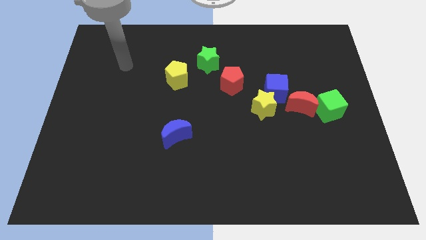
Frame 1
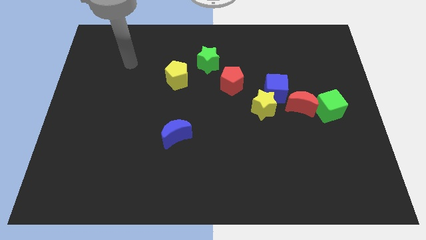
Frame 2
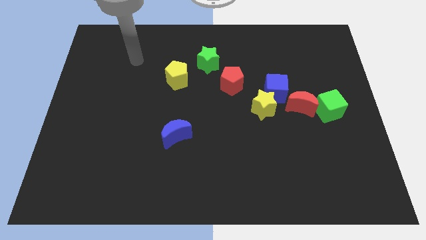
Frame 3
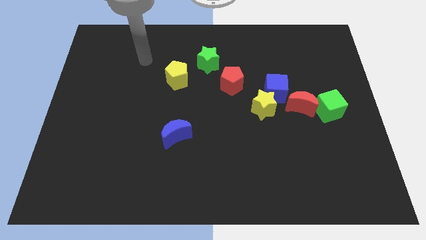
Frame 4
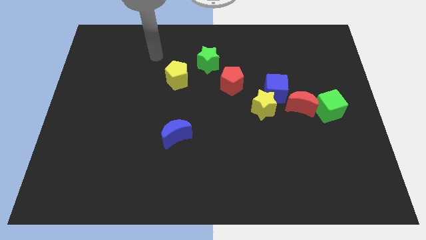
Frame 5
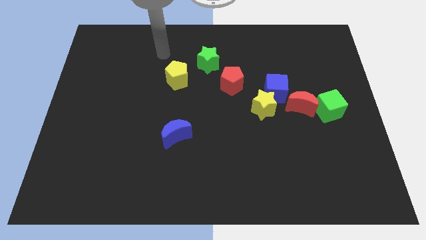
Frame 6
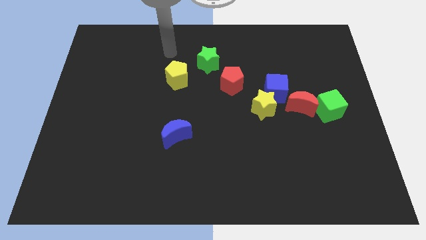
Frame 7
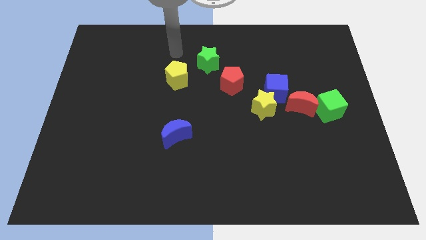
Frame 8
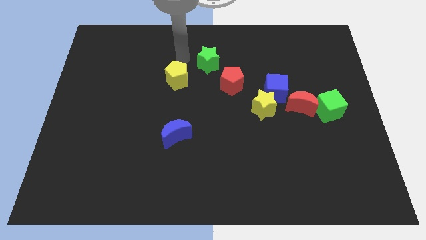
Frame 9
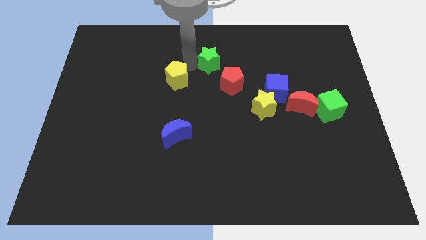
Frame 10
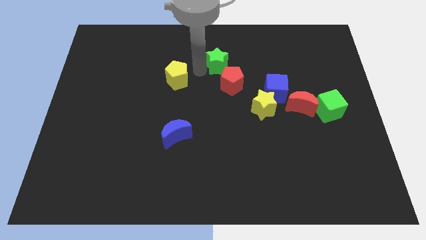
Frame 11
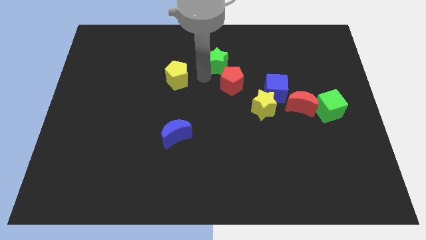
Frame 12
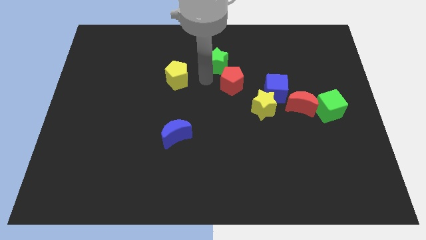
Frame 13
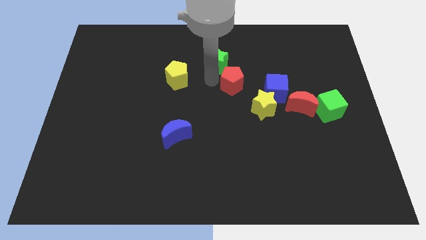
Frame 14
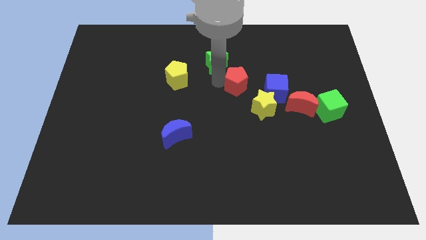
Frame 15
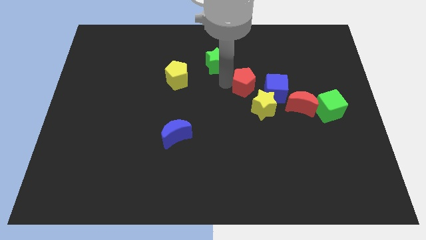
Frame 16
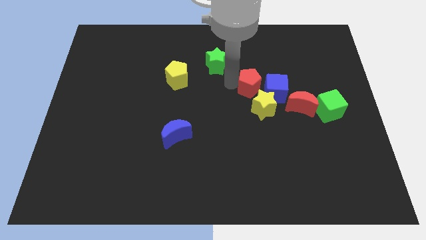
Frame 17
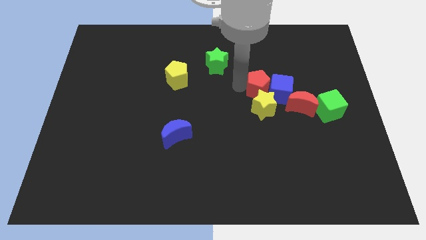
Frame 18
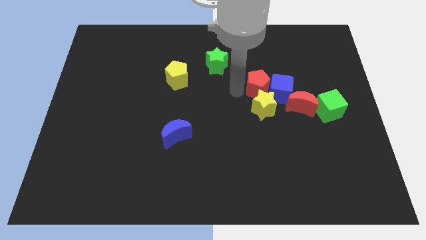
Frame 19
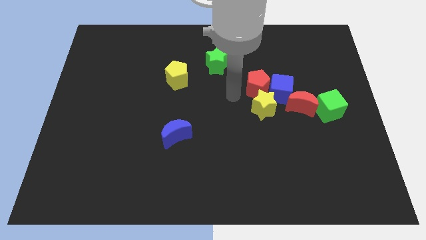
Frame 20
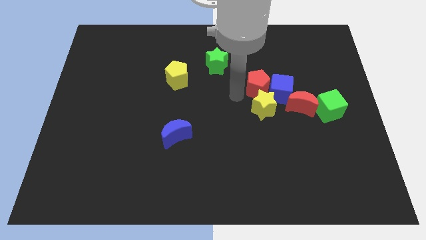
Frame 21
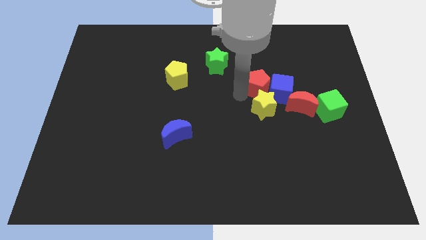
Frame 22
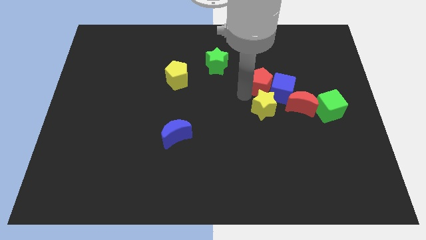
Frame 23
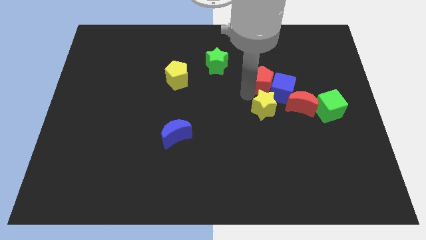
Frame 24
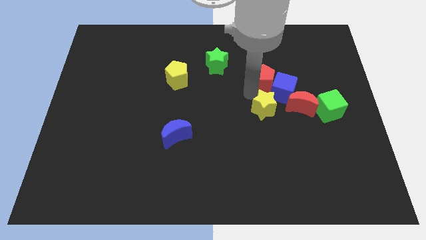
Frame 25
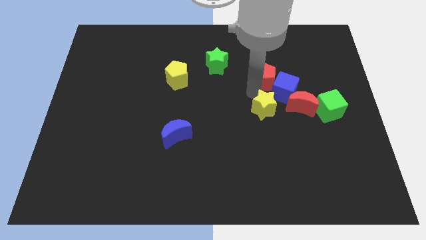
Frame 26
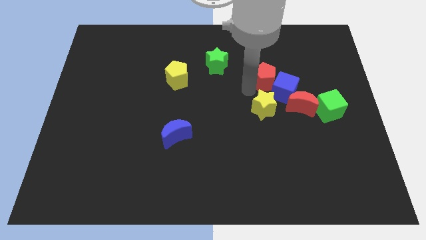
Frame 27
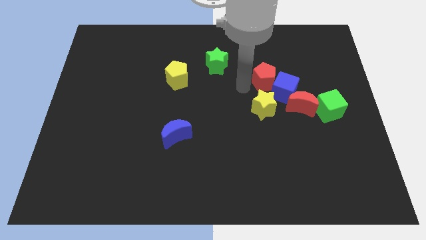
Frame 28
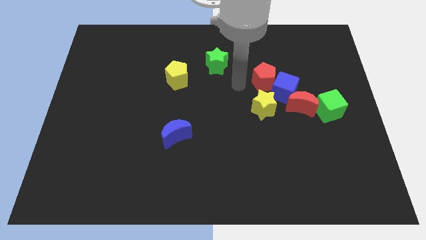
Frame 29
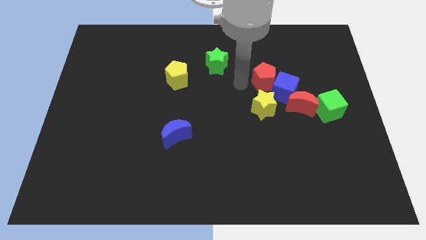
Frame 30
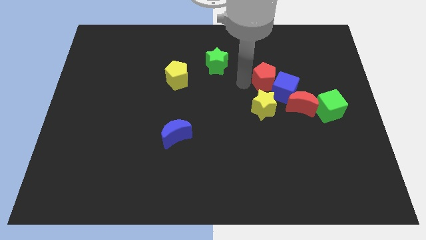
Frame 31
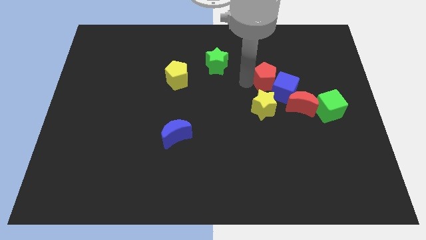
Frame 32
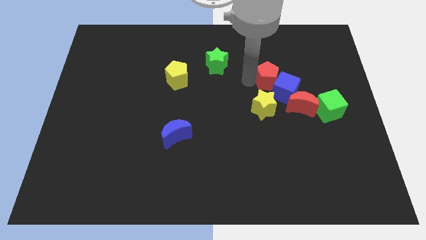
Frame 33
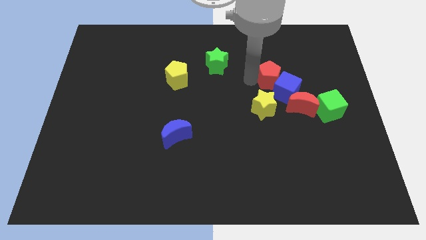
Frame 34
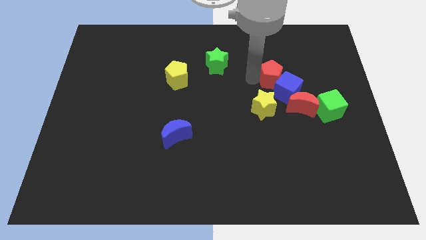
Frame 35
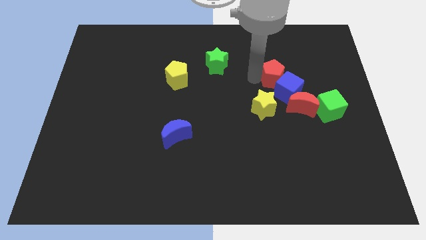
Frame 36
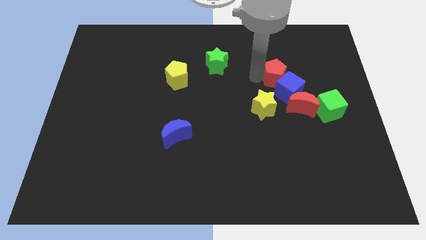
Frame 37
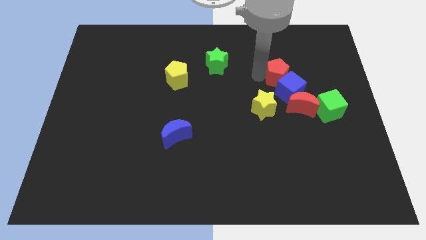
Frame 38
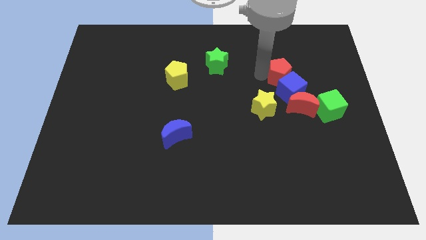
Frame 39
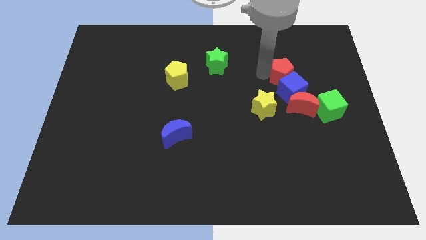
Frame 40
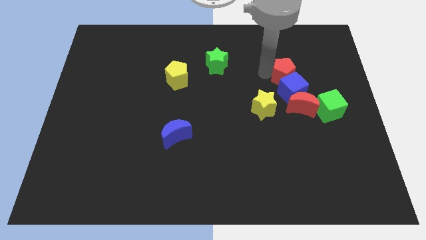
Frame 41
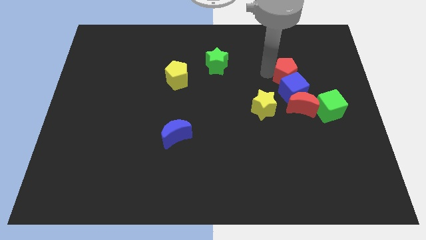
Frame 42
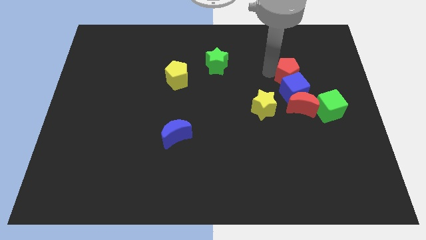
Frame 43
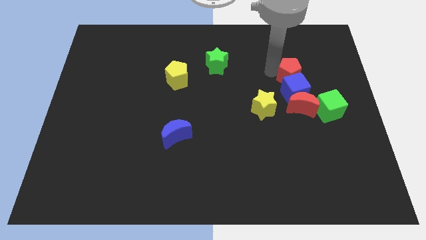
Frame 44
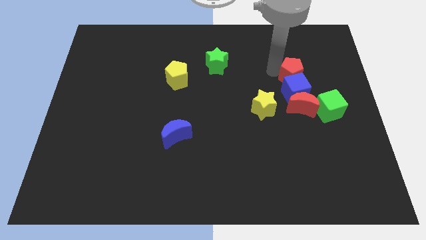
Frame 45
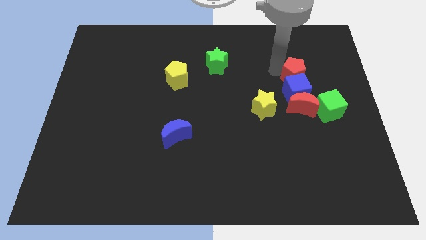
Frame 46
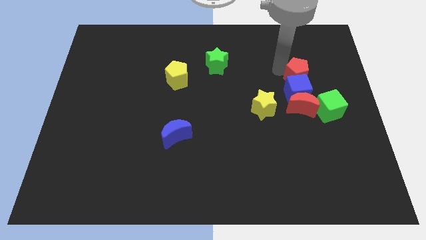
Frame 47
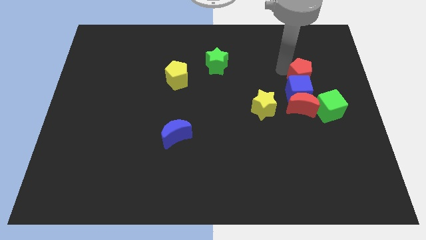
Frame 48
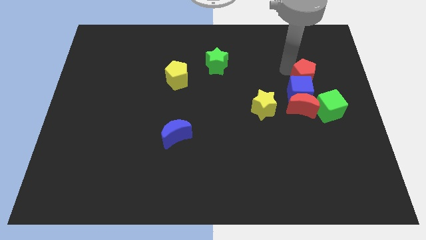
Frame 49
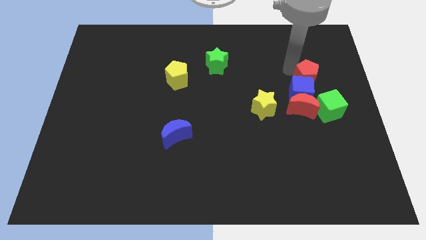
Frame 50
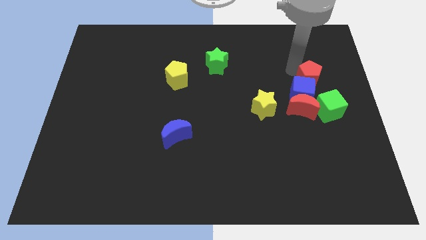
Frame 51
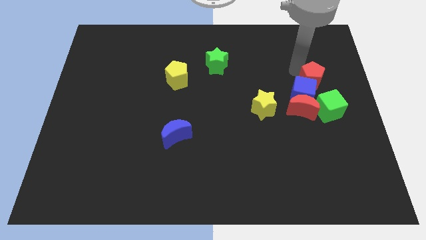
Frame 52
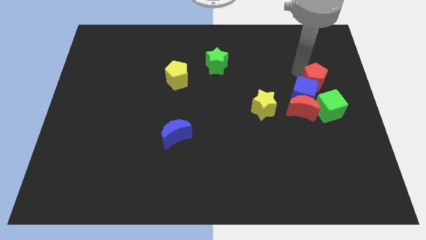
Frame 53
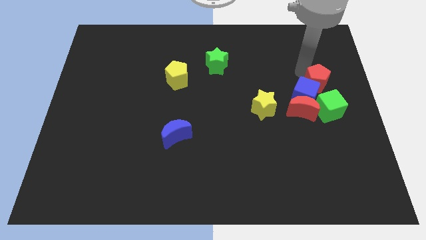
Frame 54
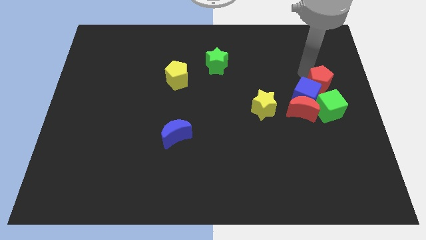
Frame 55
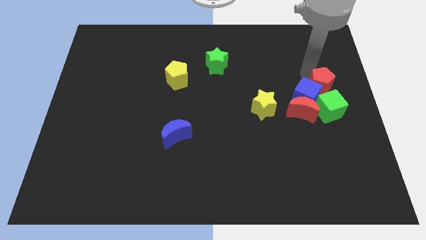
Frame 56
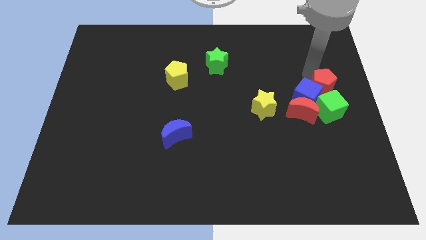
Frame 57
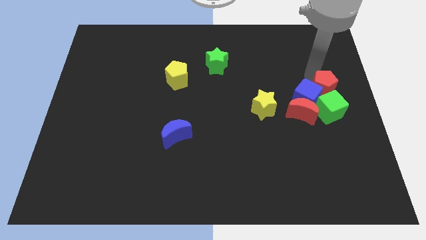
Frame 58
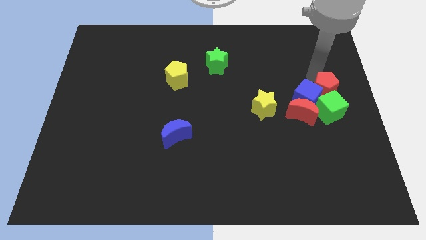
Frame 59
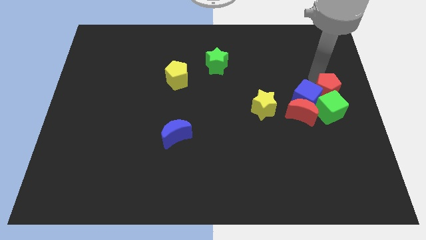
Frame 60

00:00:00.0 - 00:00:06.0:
slide the red pentagon to the green cube

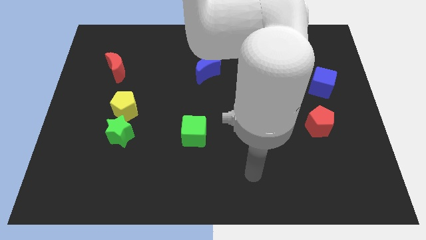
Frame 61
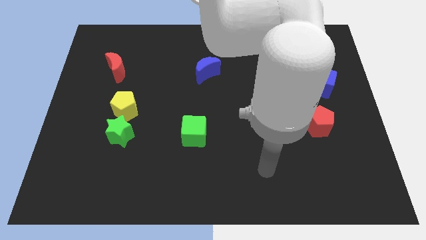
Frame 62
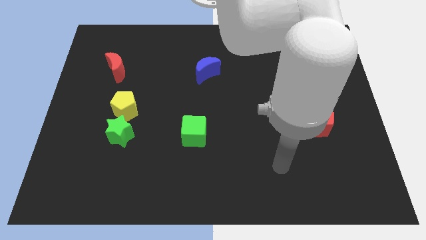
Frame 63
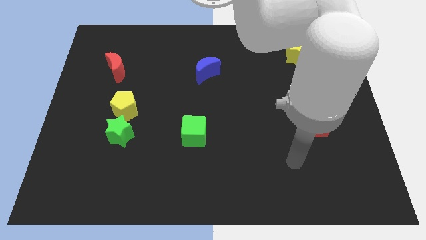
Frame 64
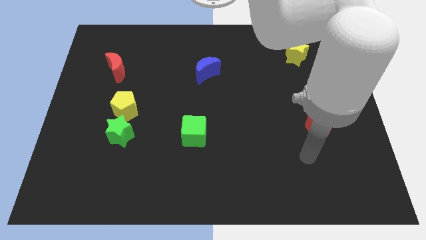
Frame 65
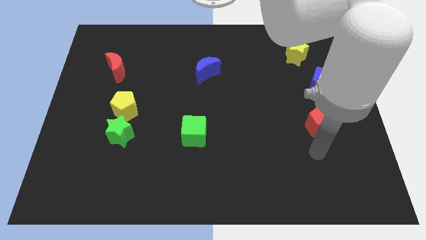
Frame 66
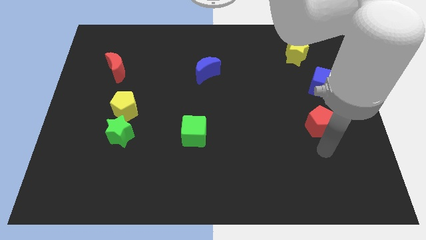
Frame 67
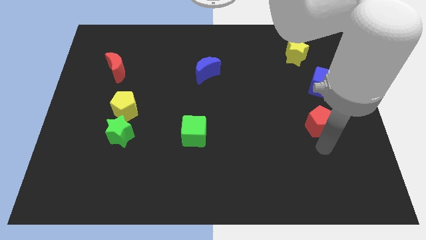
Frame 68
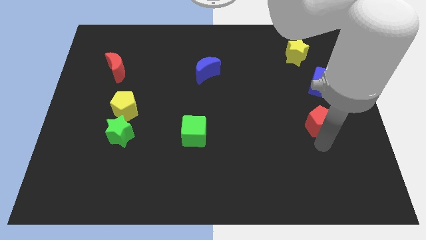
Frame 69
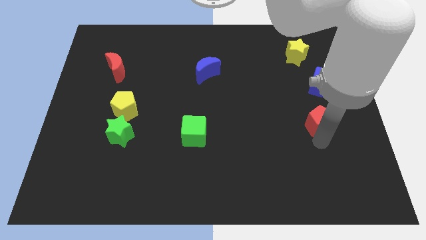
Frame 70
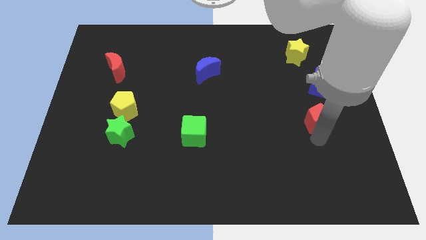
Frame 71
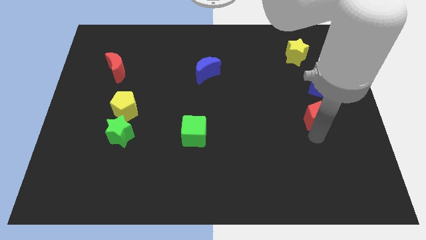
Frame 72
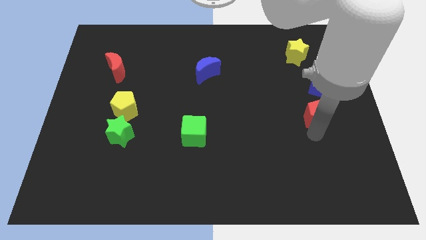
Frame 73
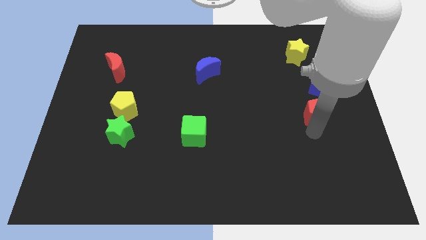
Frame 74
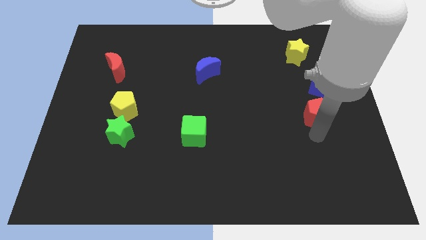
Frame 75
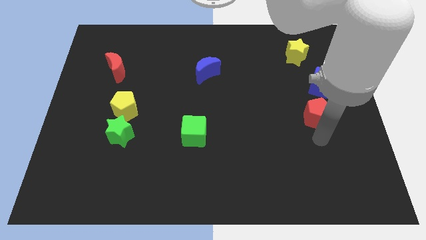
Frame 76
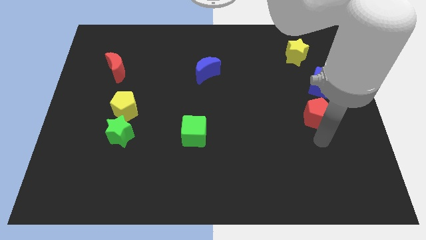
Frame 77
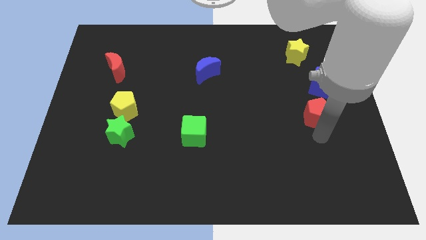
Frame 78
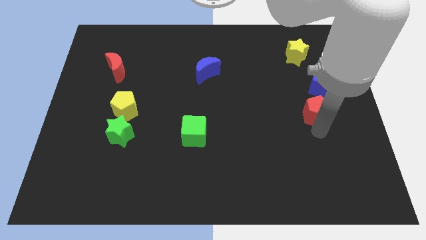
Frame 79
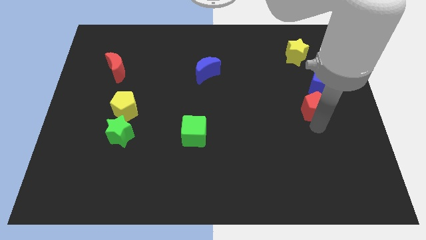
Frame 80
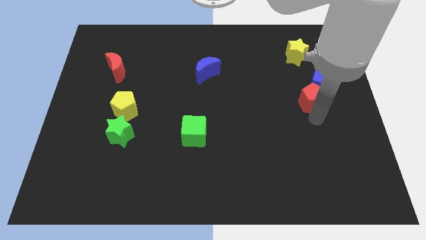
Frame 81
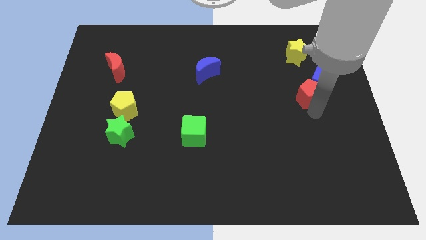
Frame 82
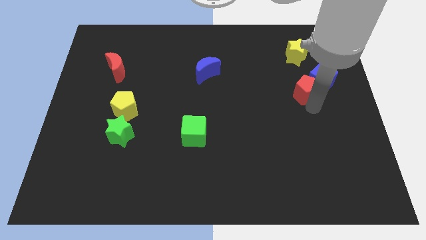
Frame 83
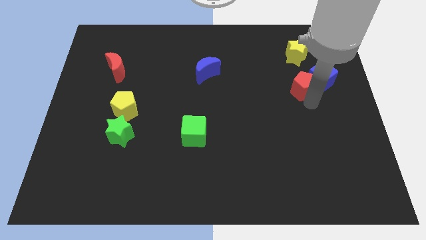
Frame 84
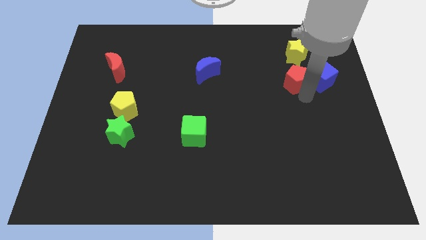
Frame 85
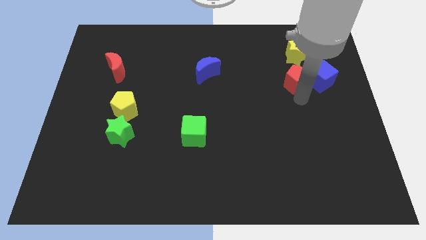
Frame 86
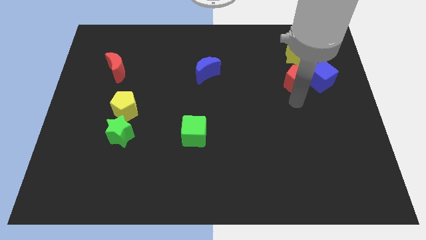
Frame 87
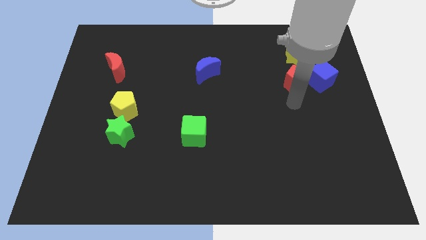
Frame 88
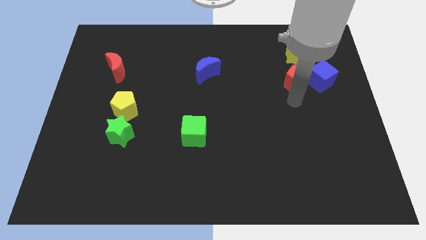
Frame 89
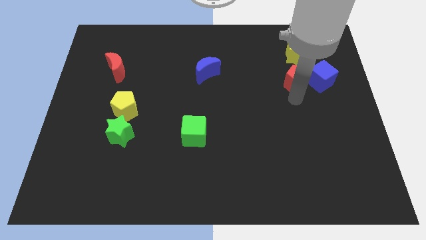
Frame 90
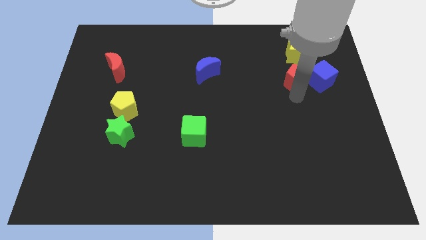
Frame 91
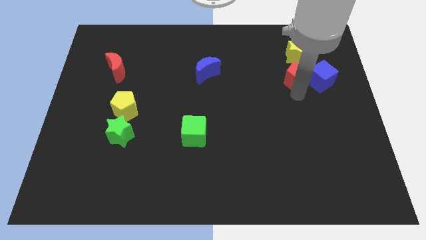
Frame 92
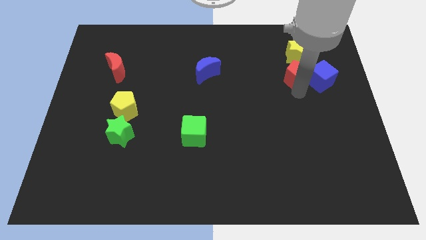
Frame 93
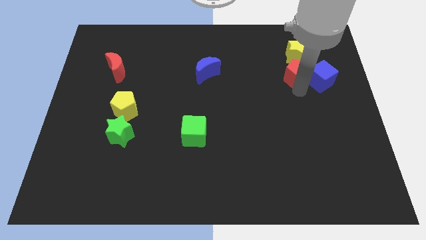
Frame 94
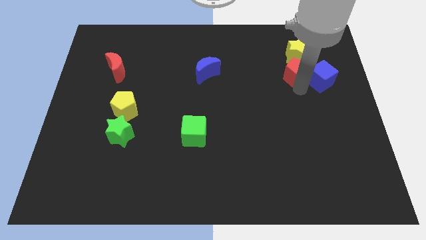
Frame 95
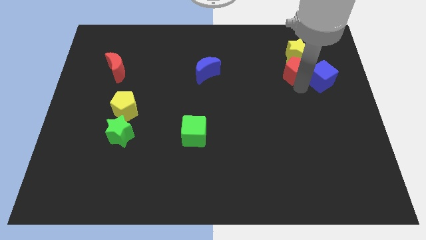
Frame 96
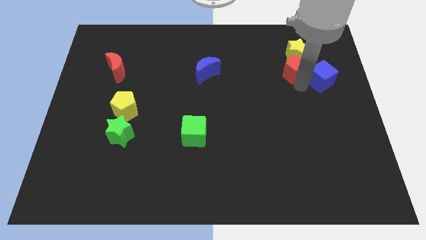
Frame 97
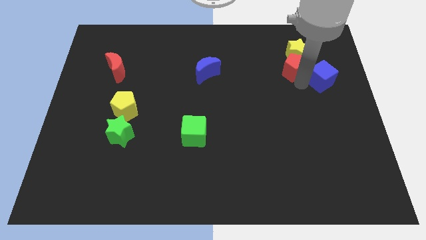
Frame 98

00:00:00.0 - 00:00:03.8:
push the red pentagon to the yellow star
